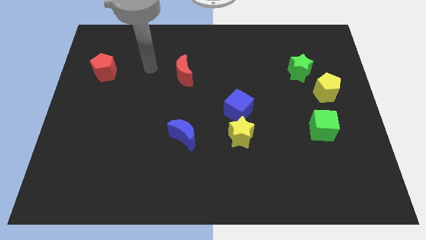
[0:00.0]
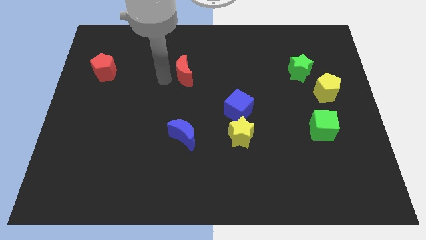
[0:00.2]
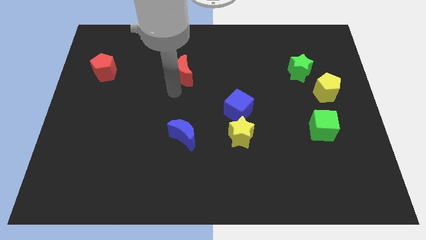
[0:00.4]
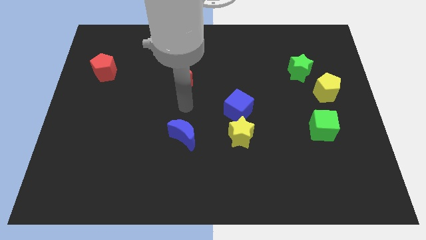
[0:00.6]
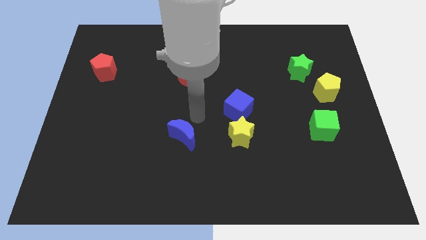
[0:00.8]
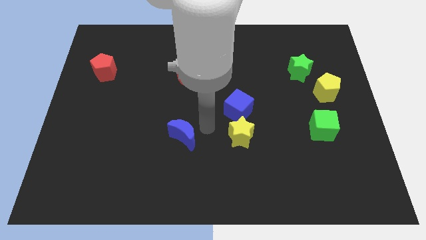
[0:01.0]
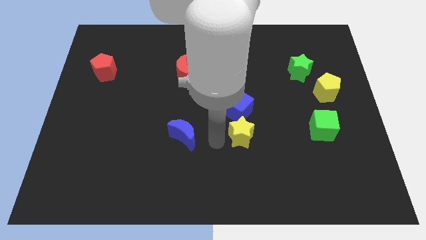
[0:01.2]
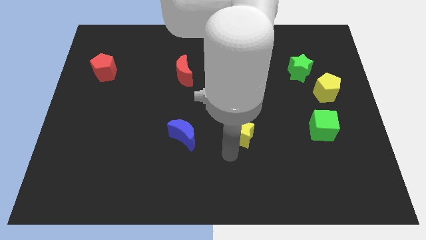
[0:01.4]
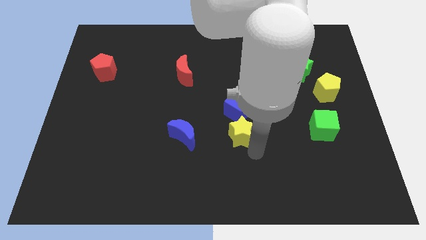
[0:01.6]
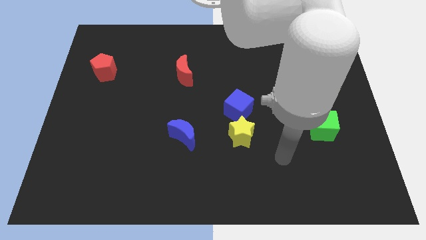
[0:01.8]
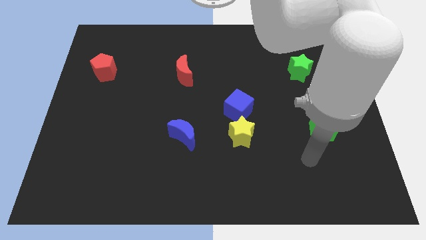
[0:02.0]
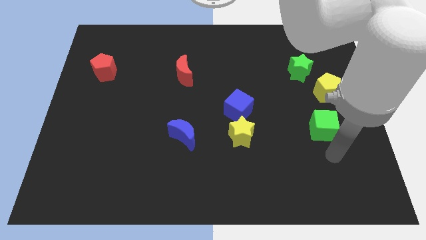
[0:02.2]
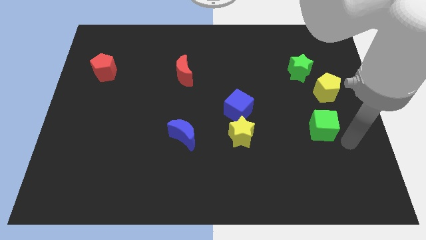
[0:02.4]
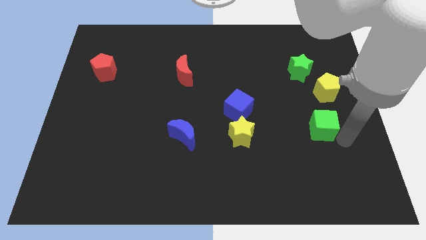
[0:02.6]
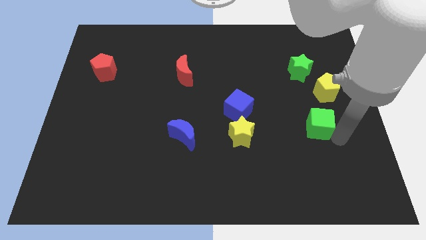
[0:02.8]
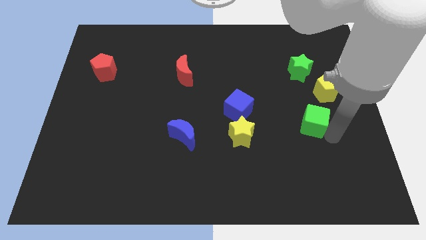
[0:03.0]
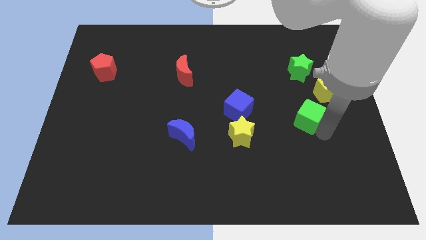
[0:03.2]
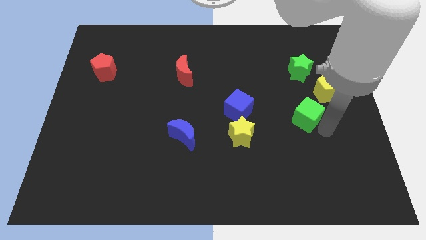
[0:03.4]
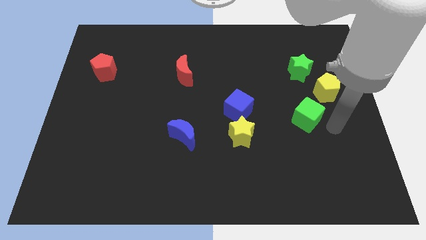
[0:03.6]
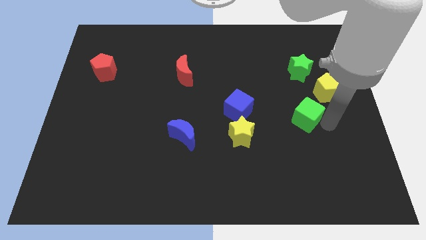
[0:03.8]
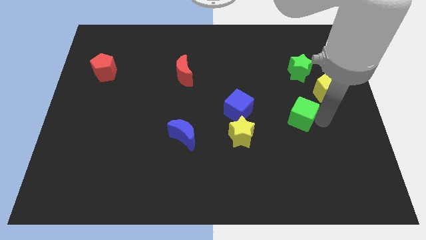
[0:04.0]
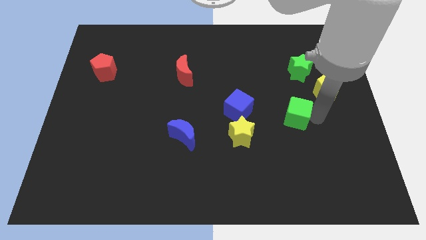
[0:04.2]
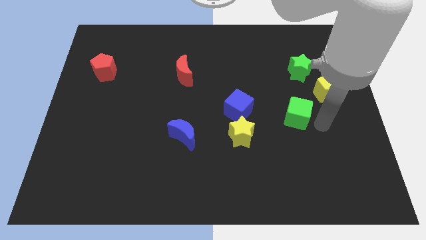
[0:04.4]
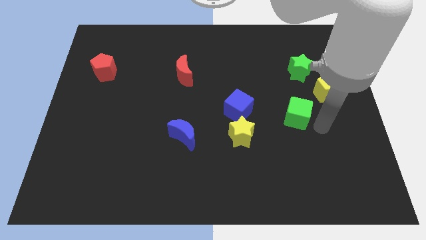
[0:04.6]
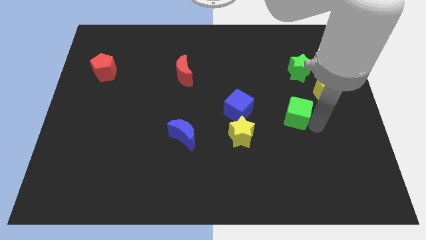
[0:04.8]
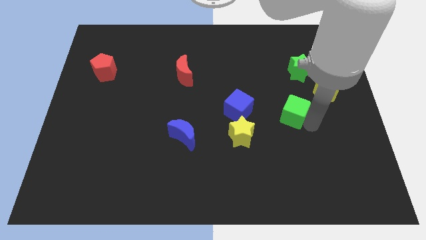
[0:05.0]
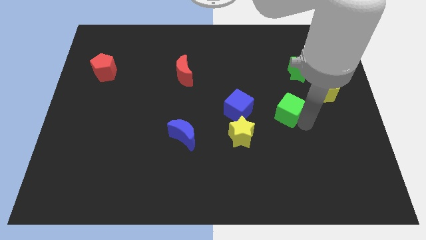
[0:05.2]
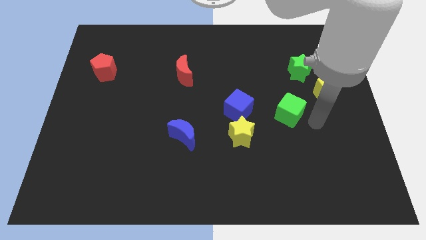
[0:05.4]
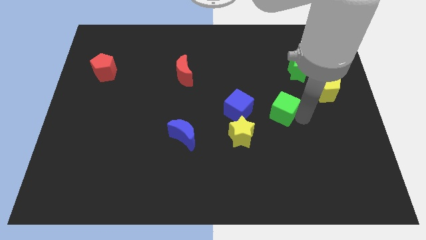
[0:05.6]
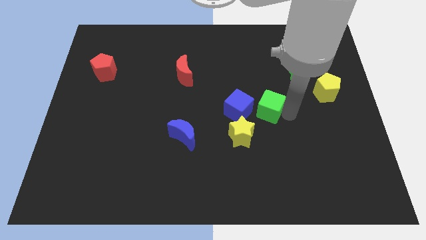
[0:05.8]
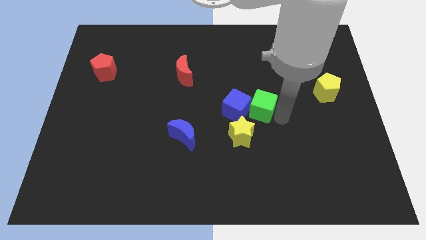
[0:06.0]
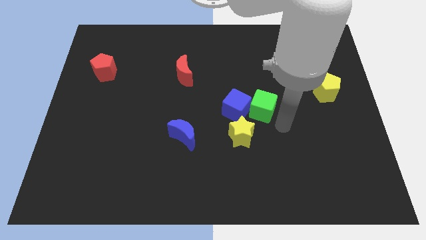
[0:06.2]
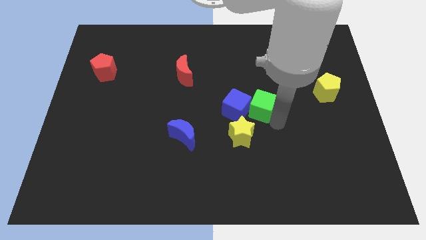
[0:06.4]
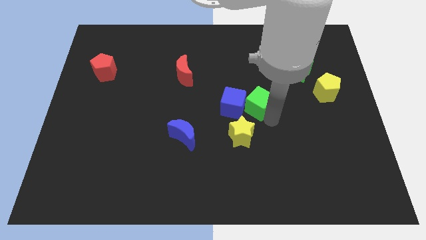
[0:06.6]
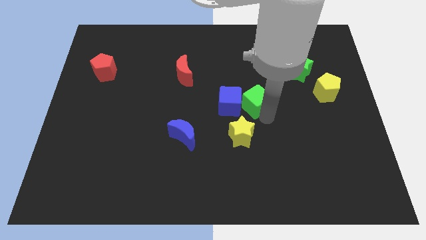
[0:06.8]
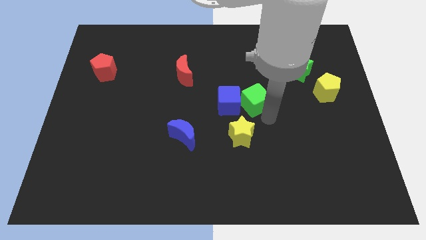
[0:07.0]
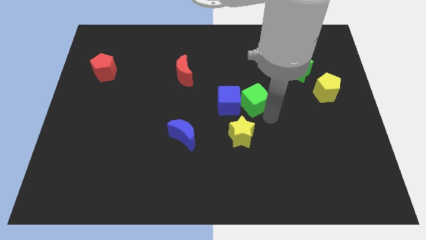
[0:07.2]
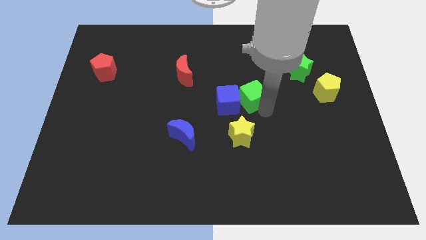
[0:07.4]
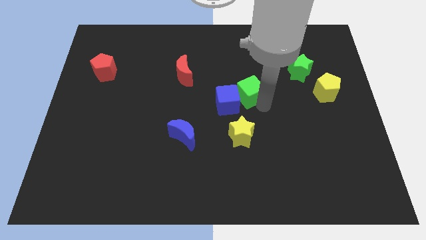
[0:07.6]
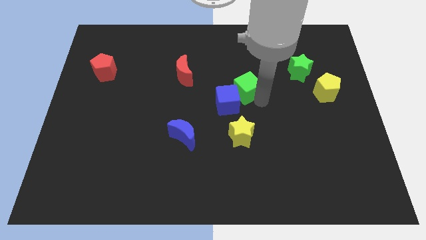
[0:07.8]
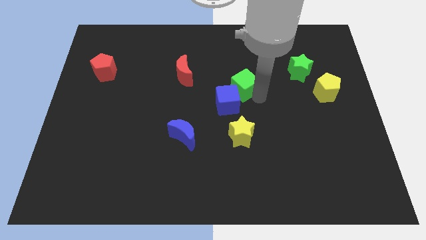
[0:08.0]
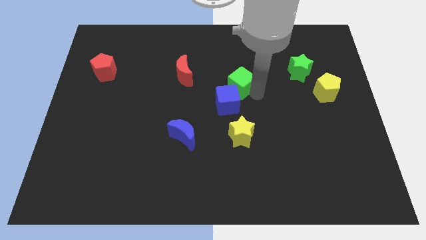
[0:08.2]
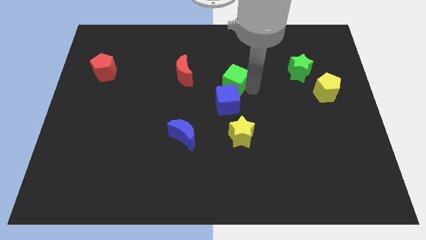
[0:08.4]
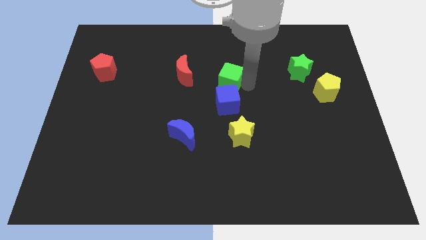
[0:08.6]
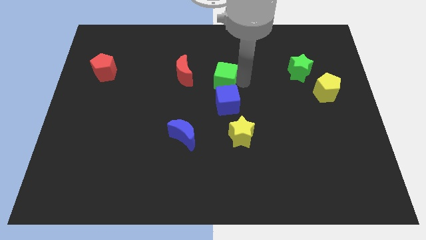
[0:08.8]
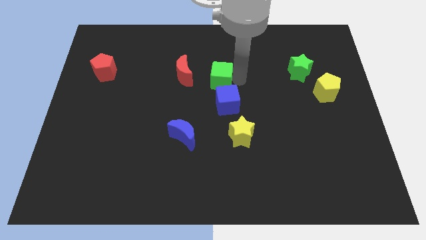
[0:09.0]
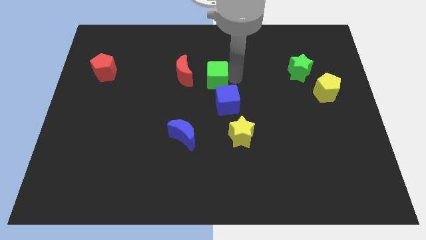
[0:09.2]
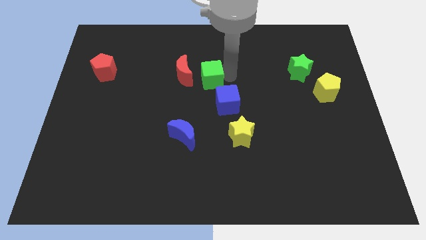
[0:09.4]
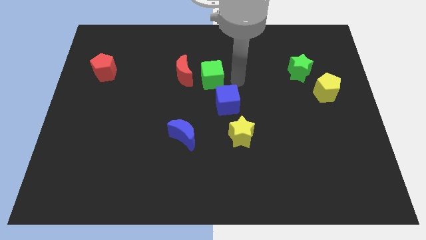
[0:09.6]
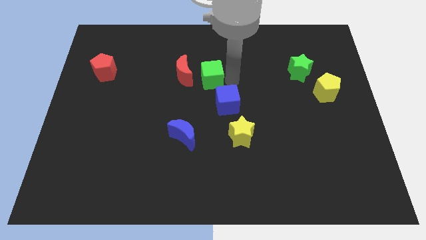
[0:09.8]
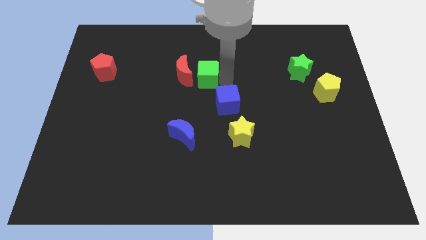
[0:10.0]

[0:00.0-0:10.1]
slide the green cube to the red moon
